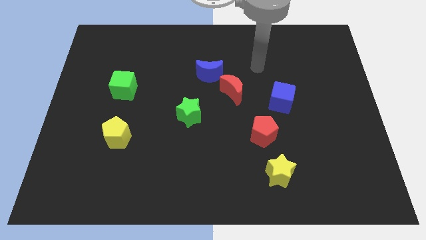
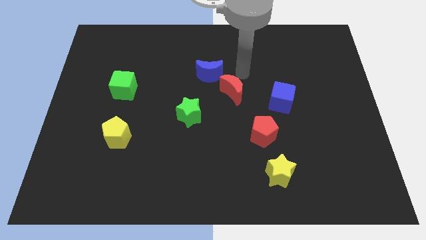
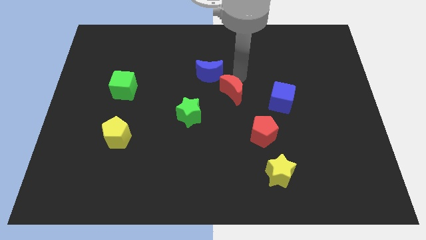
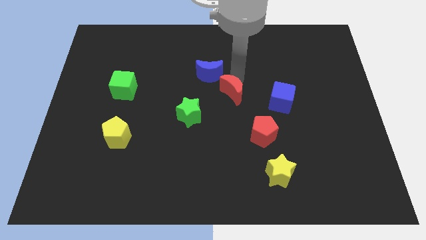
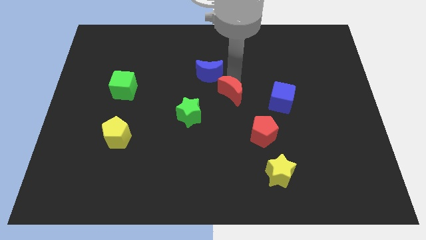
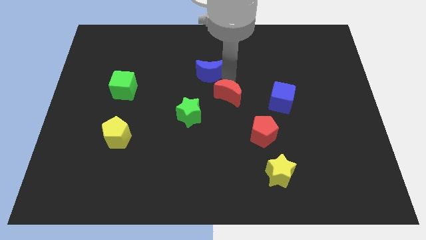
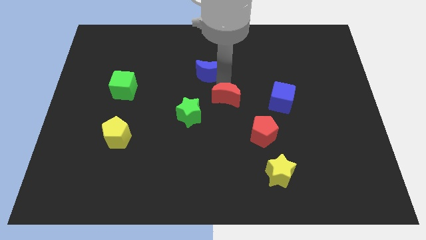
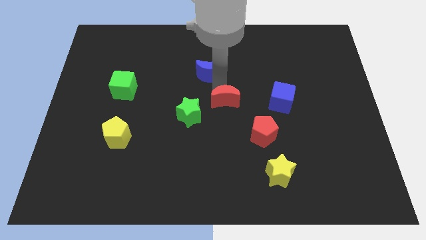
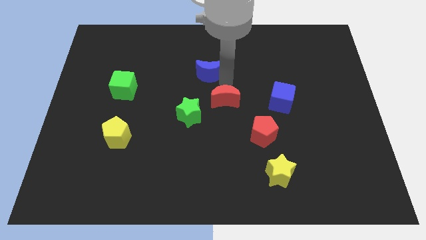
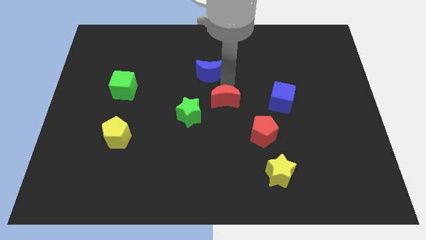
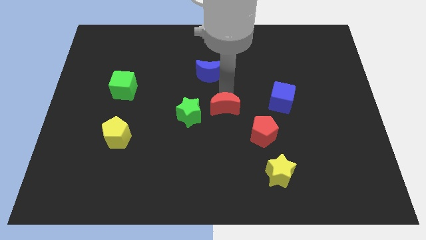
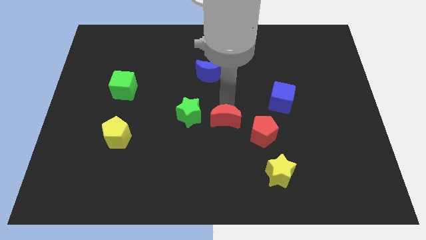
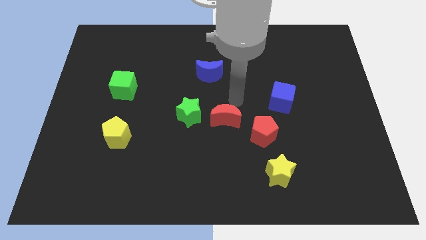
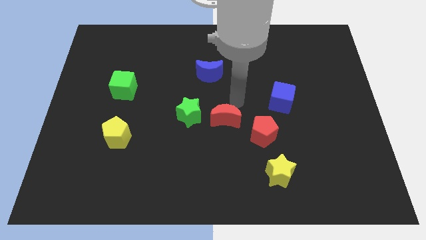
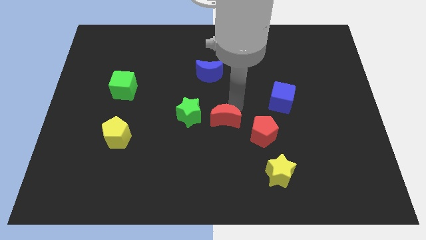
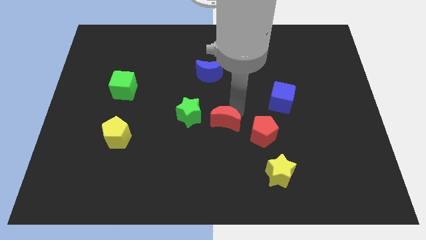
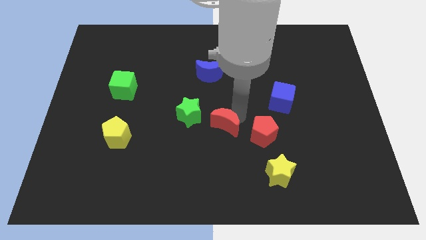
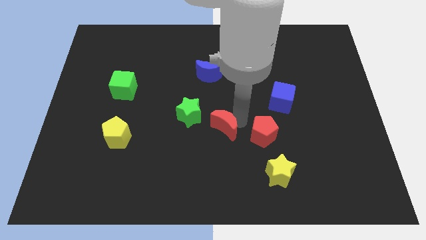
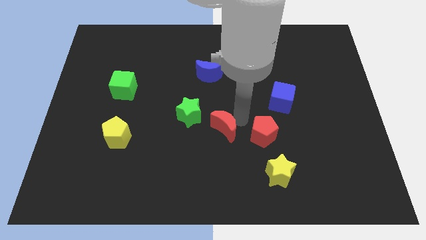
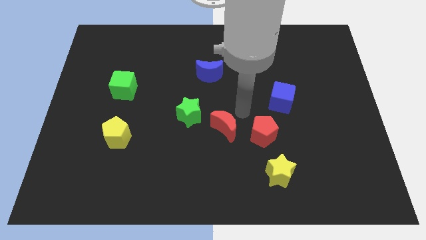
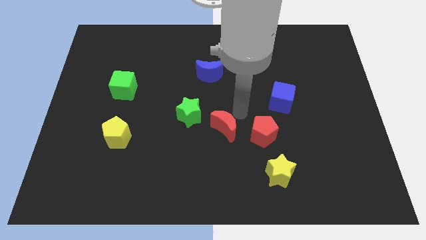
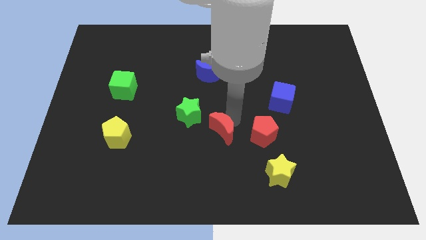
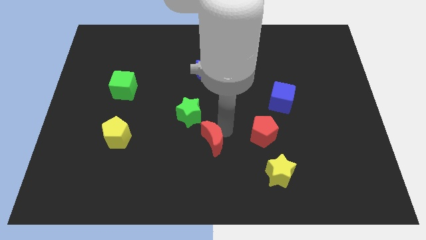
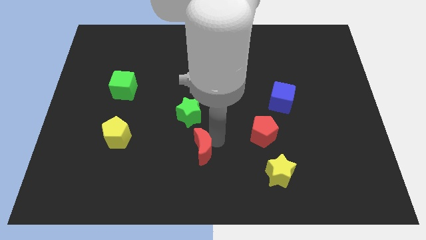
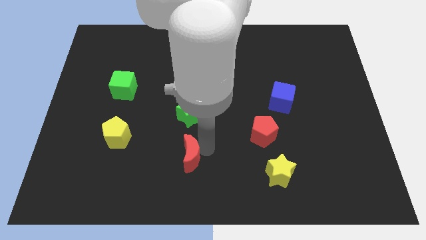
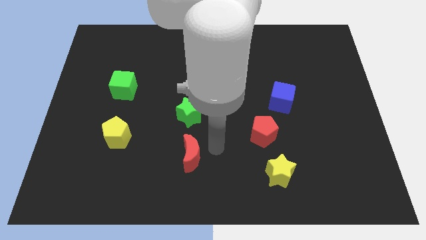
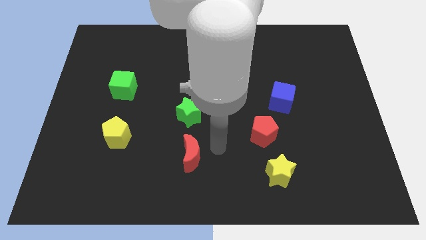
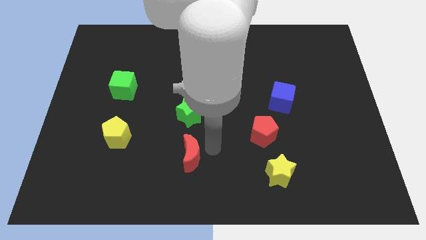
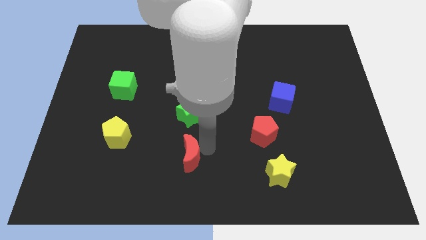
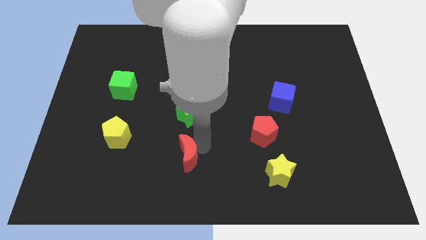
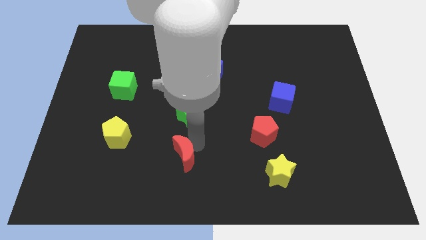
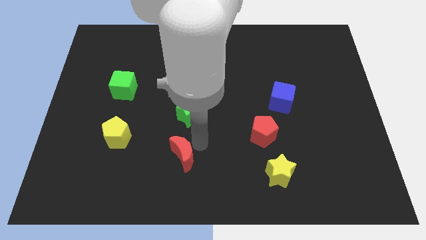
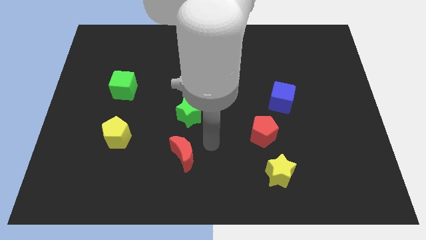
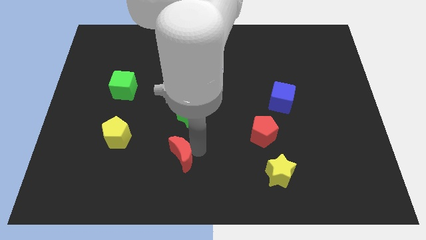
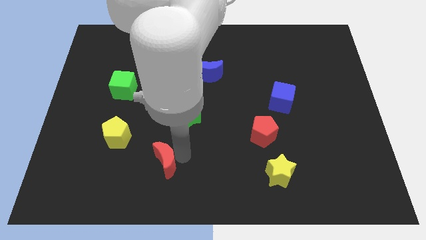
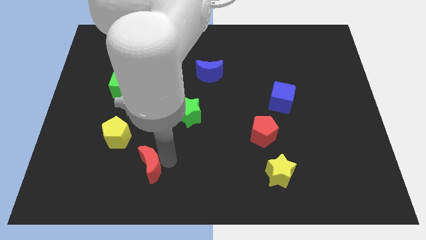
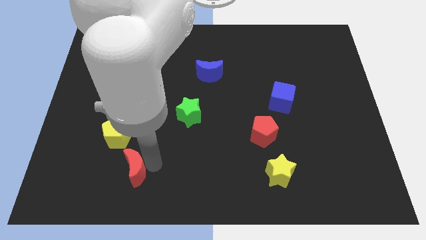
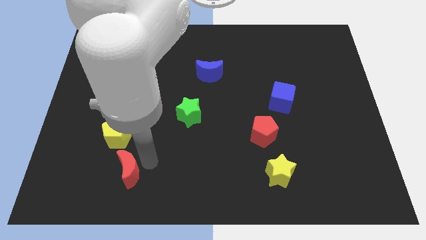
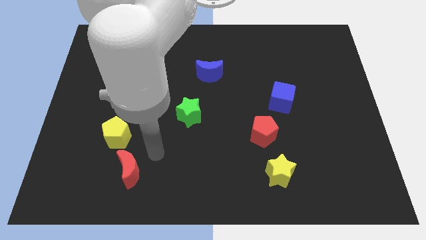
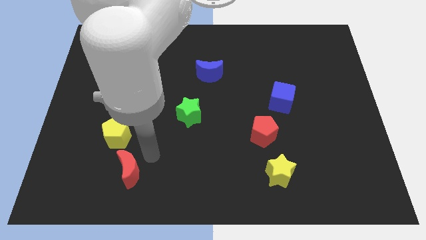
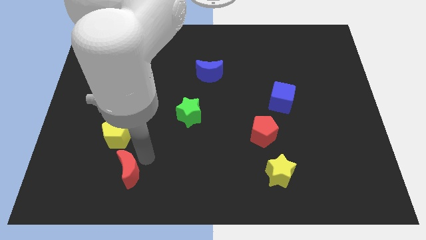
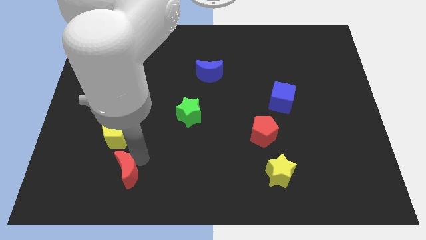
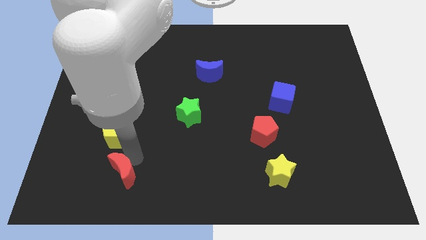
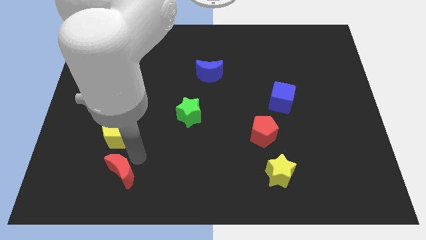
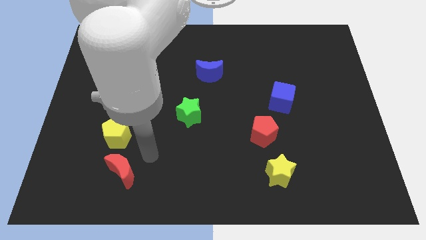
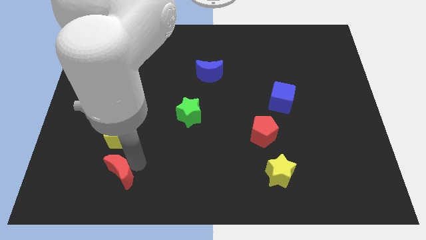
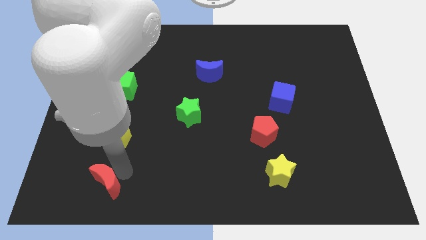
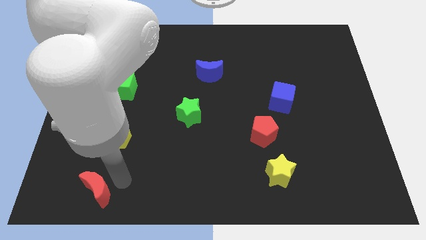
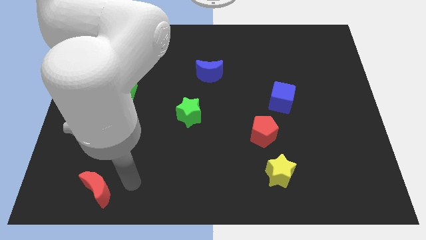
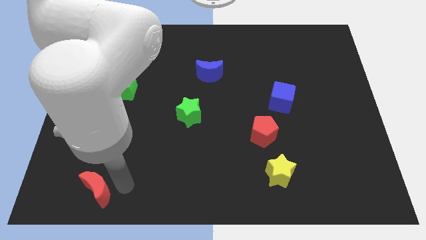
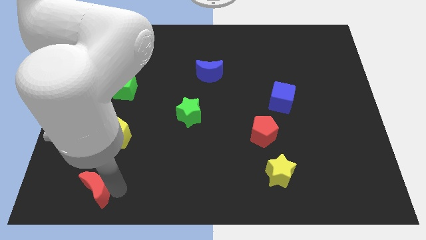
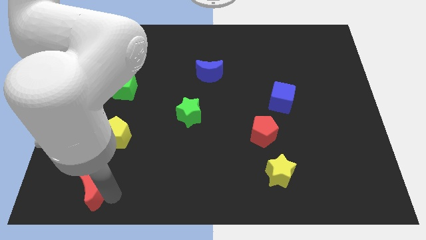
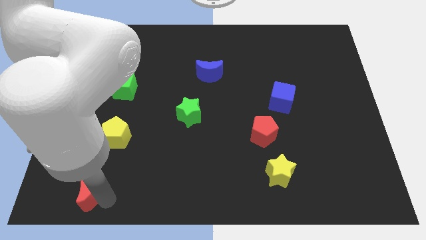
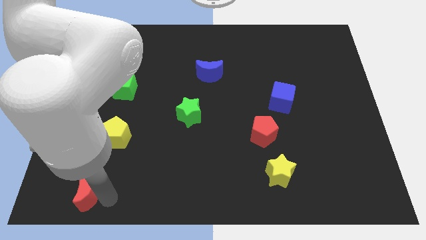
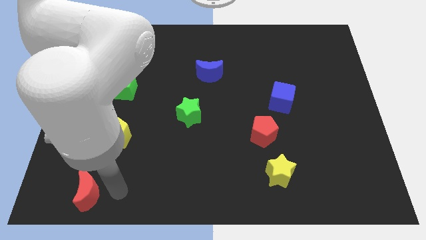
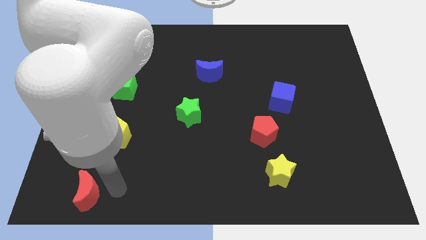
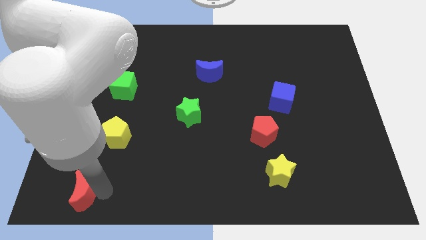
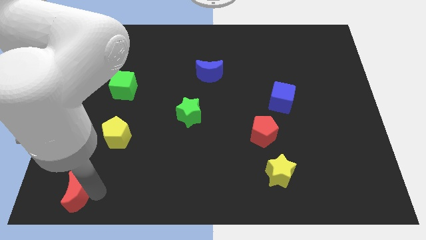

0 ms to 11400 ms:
put the red moon to the lower left corner

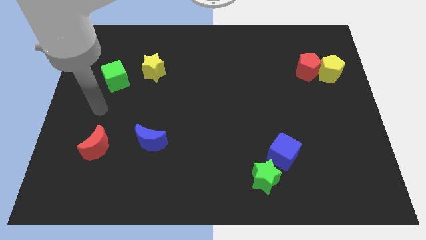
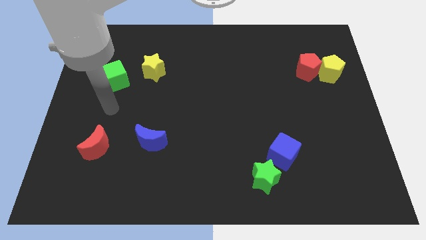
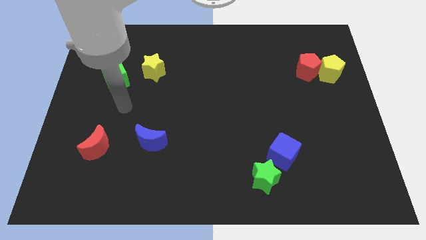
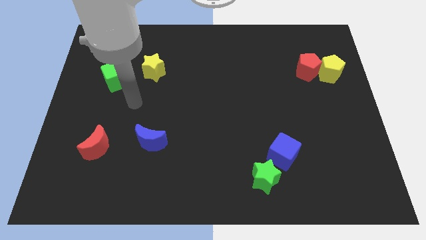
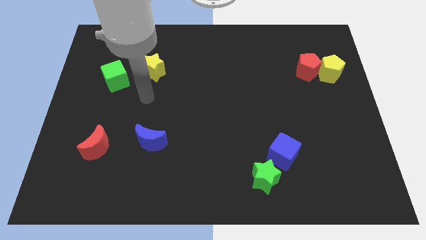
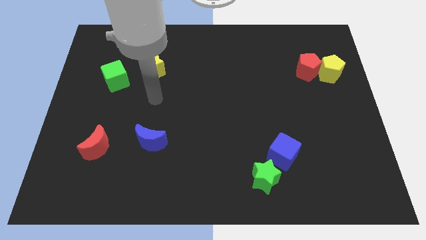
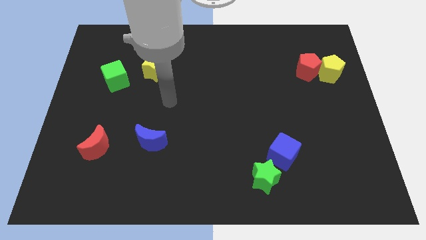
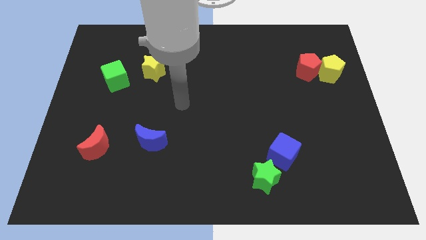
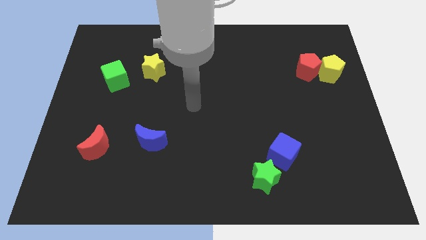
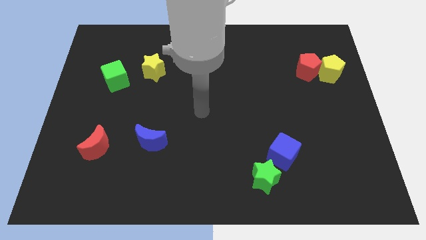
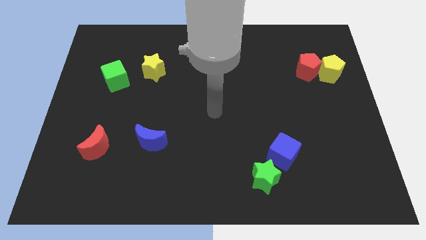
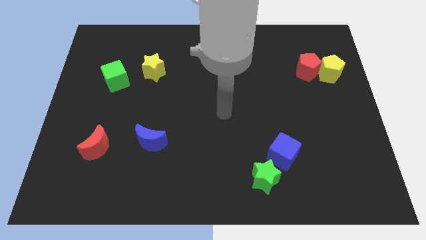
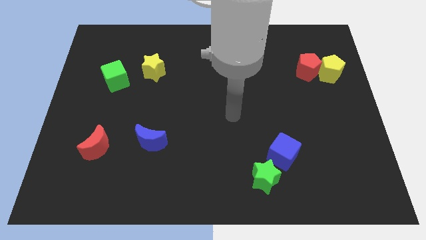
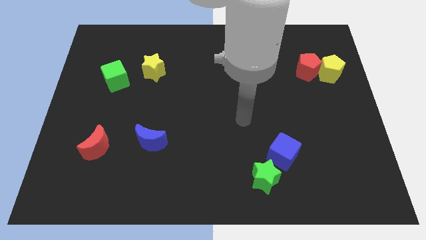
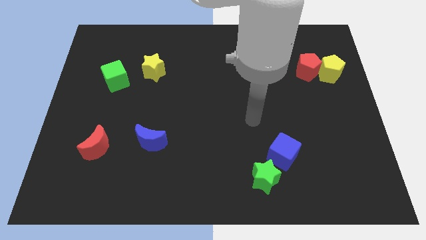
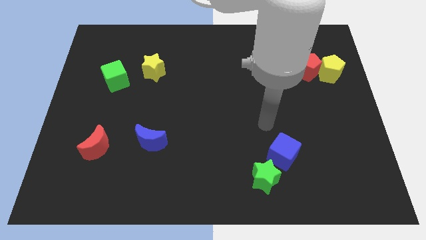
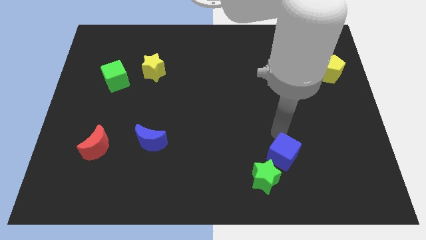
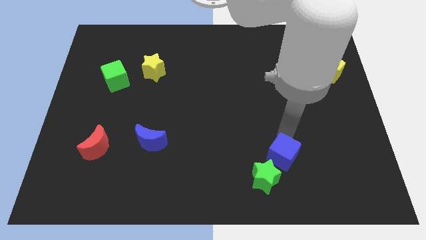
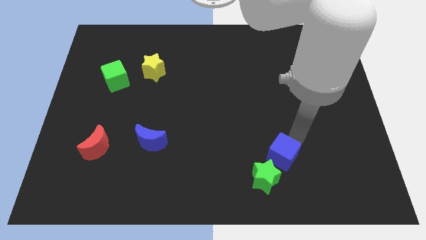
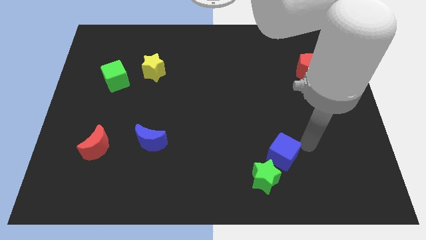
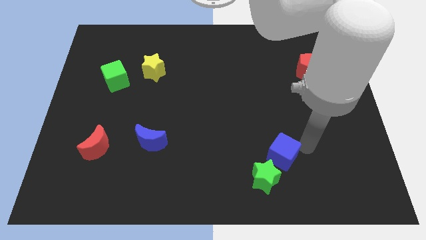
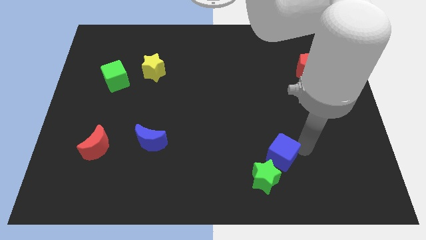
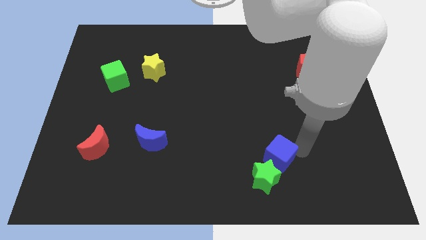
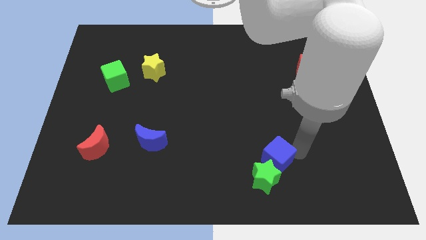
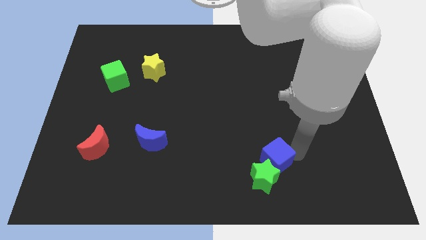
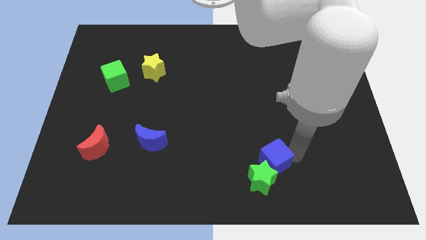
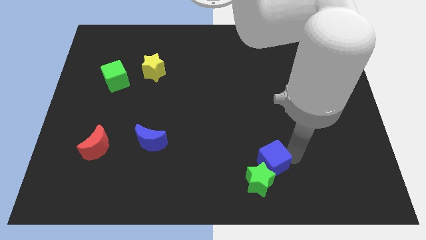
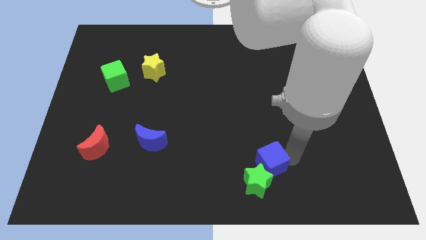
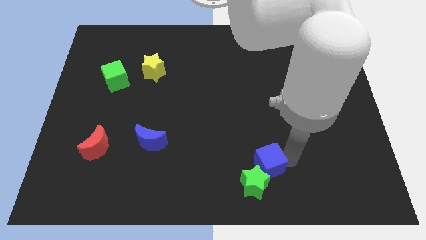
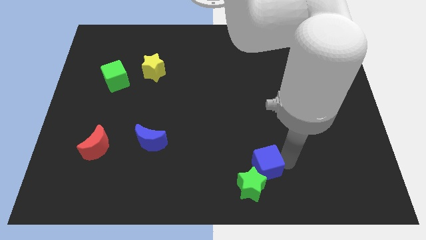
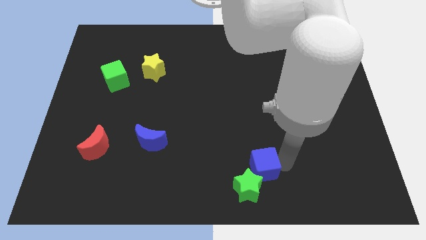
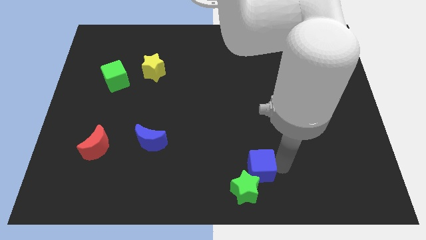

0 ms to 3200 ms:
push the blue cube to the bottom side
